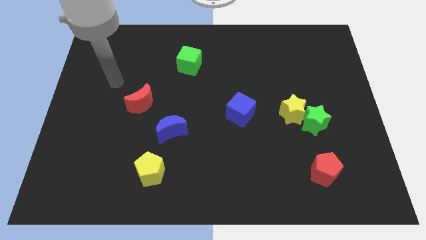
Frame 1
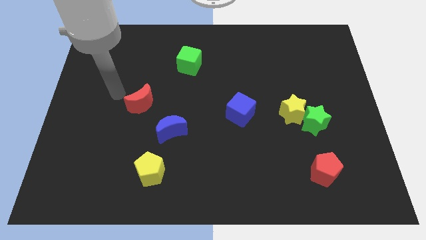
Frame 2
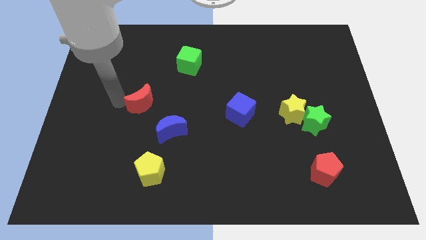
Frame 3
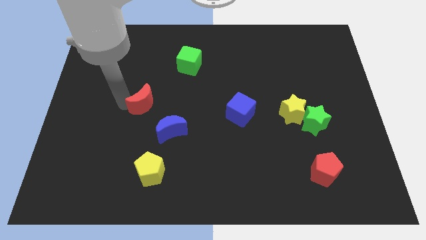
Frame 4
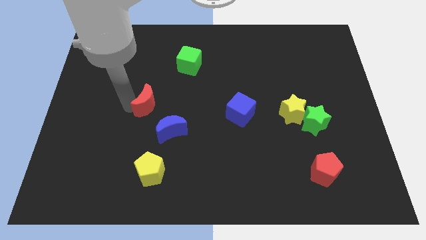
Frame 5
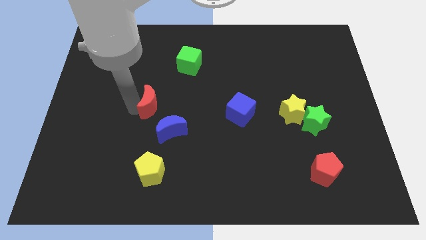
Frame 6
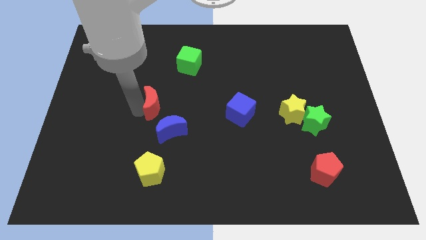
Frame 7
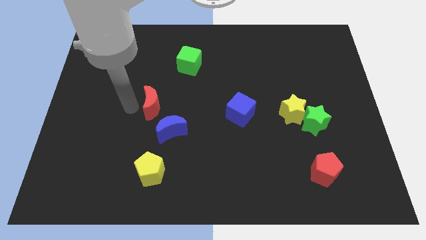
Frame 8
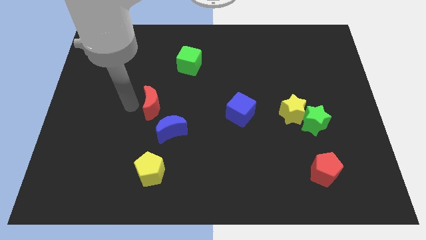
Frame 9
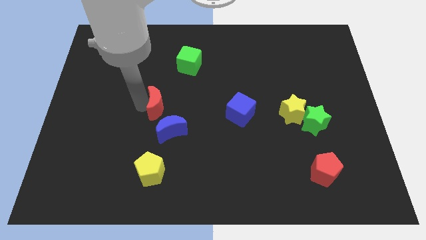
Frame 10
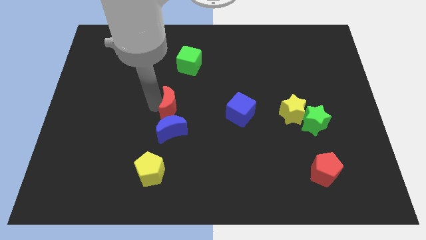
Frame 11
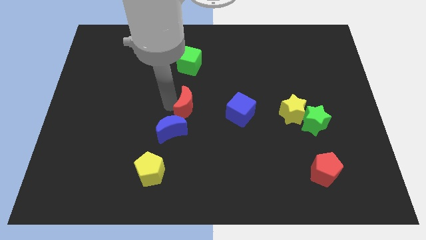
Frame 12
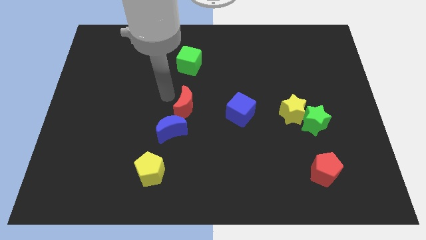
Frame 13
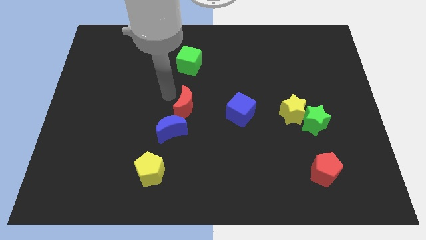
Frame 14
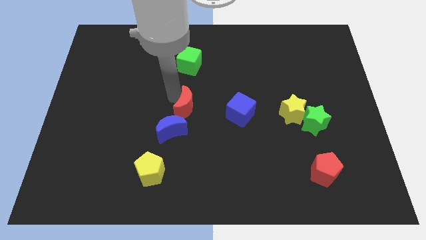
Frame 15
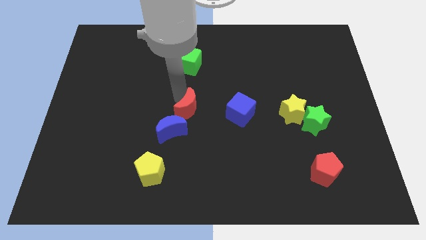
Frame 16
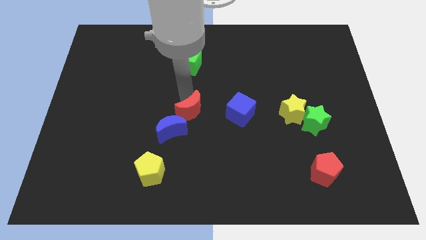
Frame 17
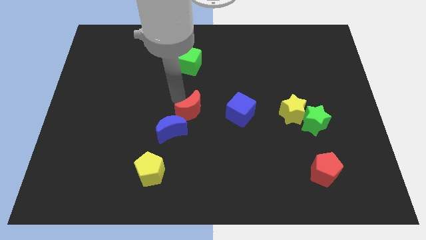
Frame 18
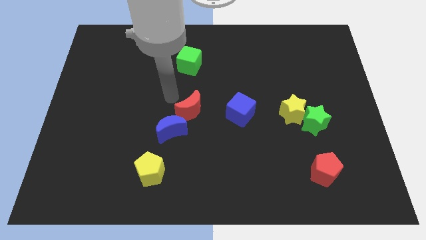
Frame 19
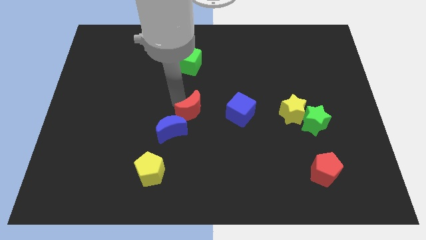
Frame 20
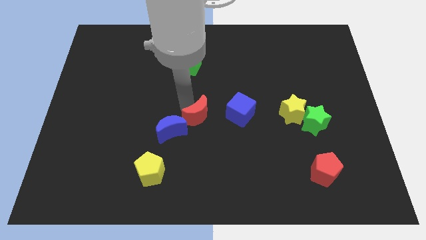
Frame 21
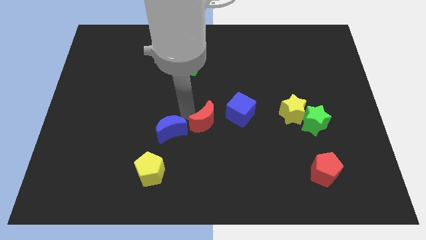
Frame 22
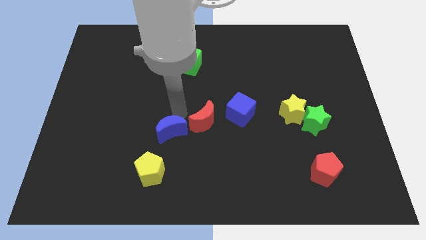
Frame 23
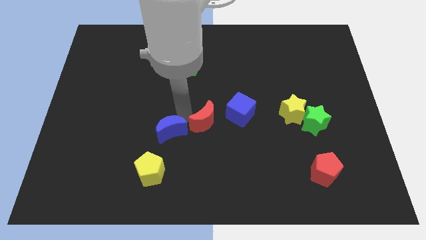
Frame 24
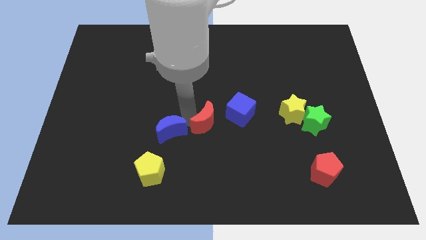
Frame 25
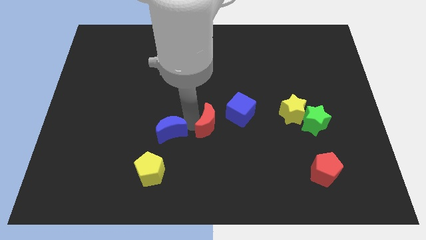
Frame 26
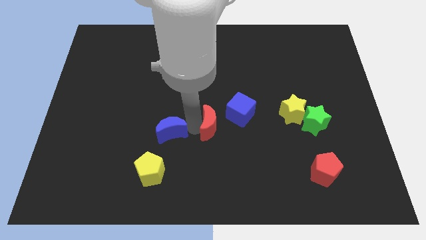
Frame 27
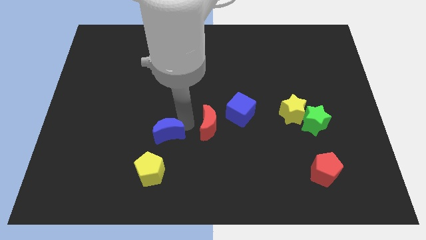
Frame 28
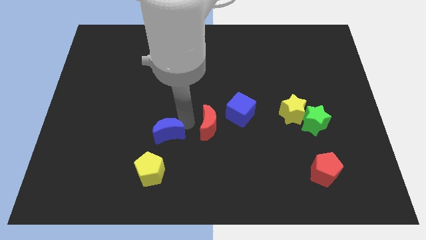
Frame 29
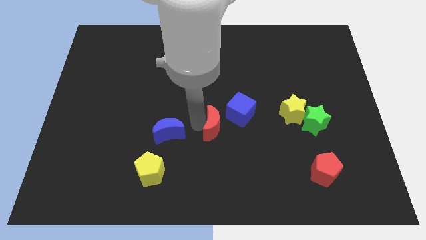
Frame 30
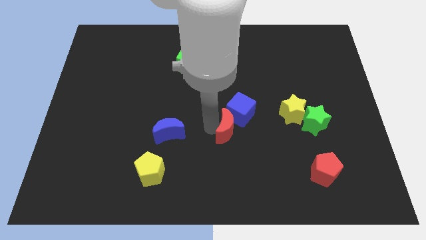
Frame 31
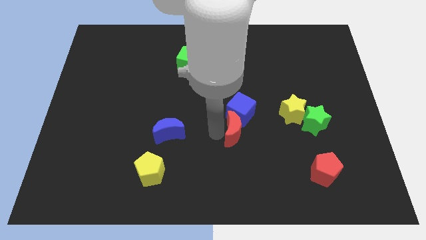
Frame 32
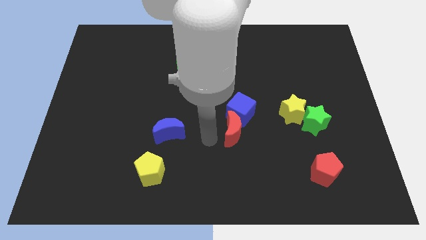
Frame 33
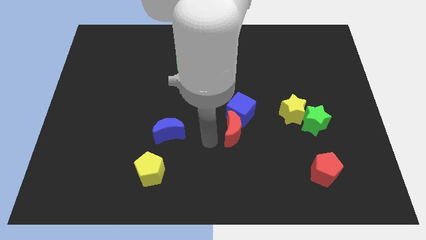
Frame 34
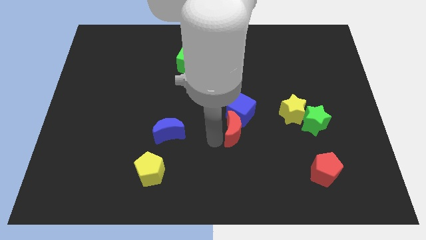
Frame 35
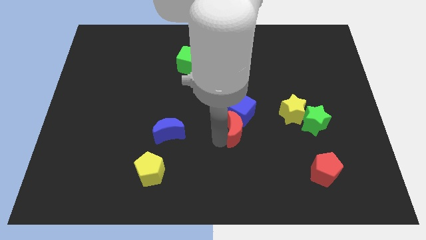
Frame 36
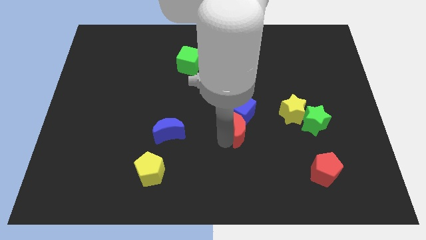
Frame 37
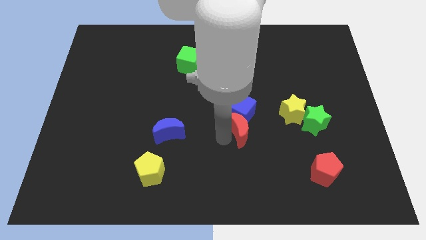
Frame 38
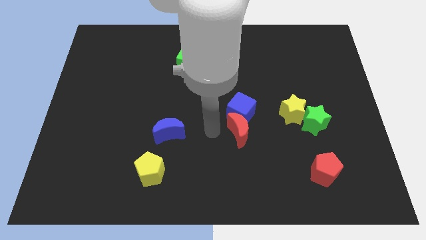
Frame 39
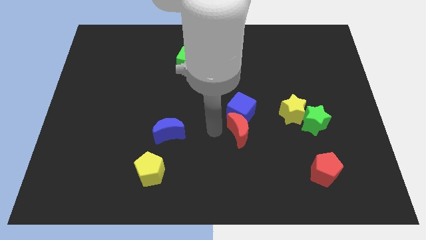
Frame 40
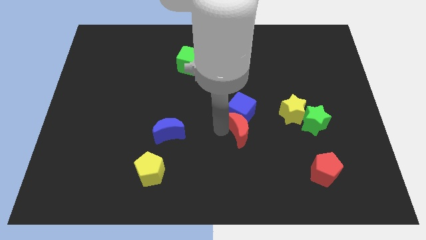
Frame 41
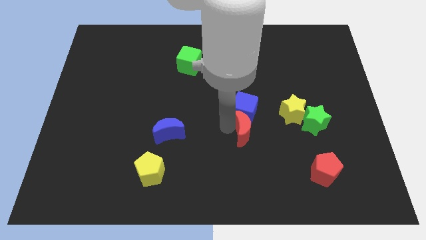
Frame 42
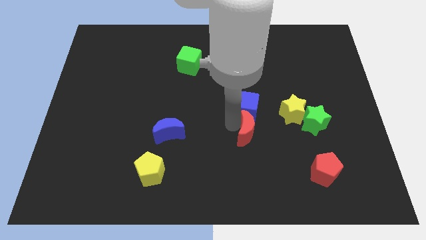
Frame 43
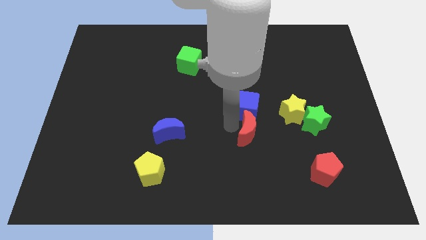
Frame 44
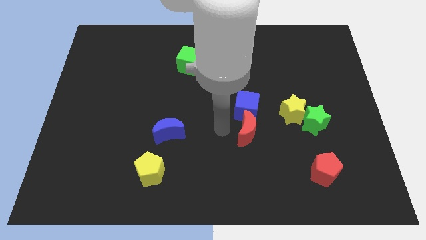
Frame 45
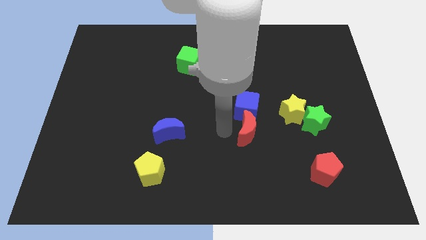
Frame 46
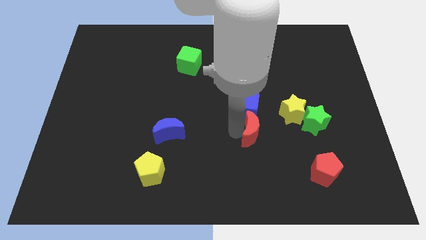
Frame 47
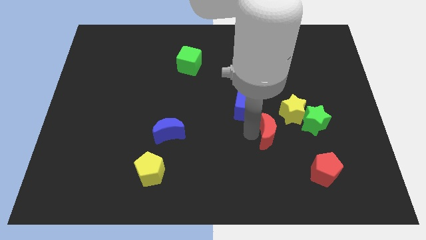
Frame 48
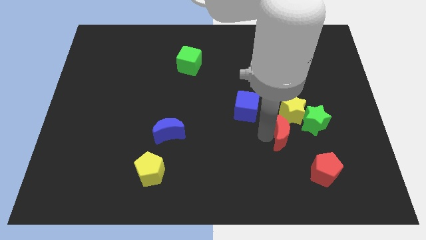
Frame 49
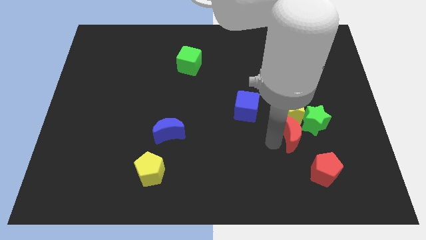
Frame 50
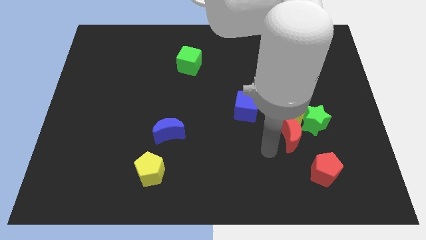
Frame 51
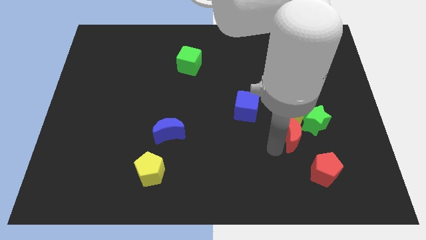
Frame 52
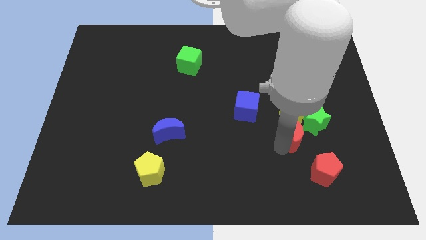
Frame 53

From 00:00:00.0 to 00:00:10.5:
push the red moon next to the green star

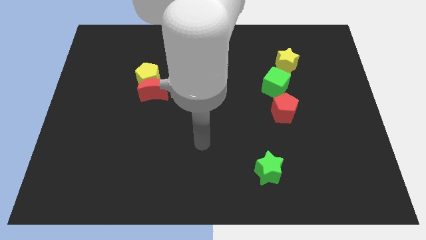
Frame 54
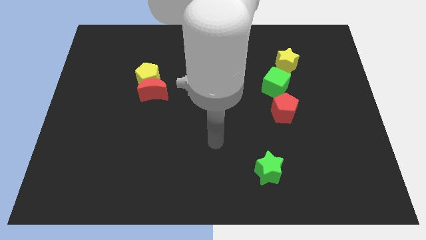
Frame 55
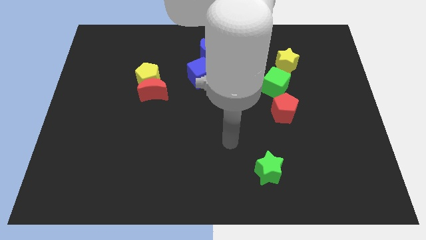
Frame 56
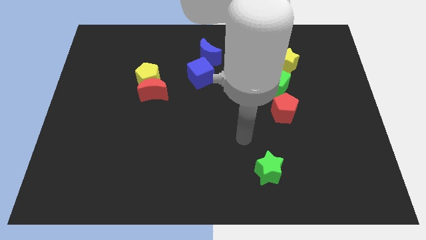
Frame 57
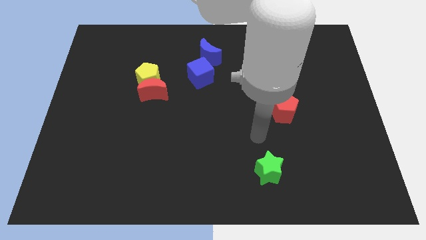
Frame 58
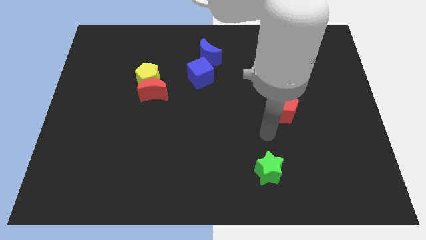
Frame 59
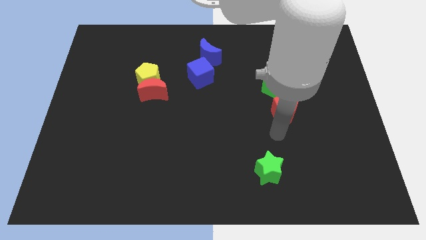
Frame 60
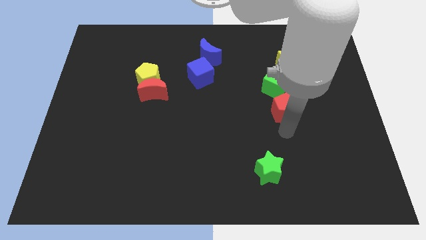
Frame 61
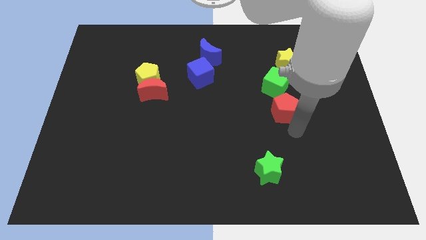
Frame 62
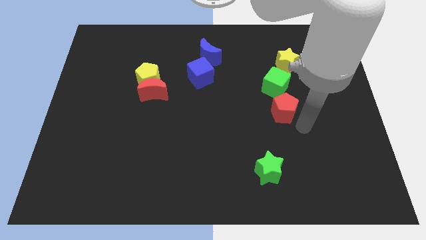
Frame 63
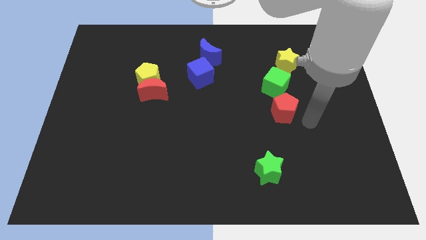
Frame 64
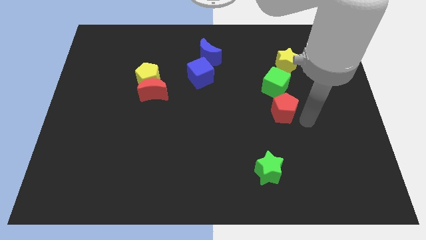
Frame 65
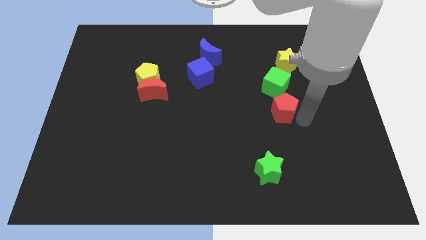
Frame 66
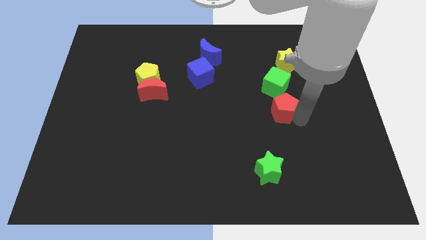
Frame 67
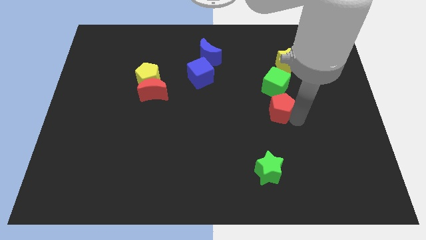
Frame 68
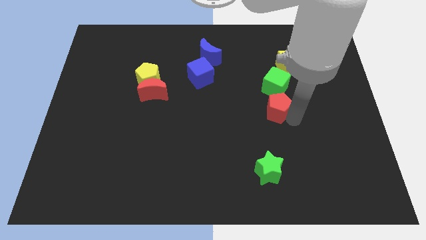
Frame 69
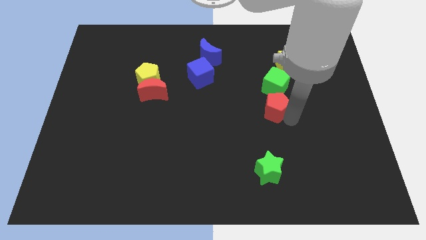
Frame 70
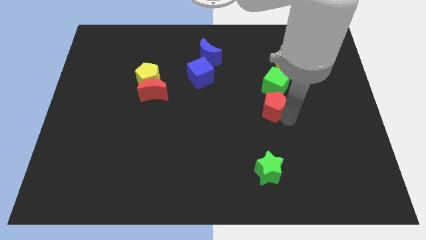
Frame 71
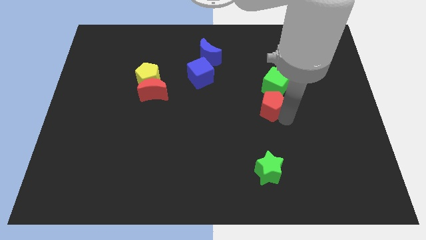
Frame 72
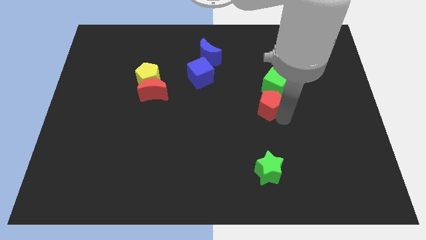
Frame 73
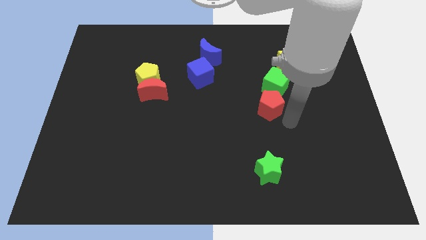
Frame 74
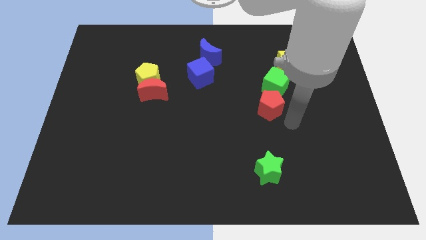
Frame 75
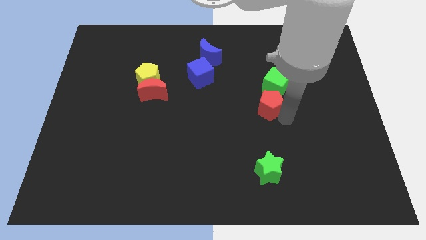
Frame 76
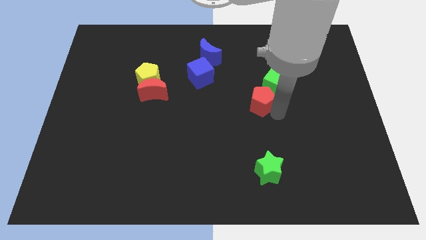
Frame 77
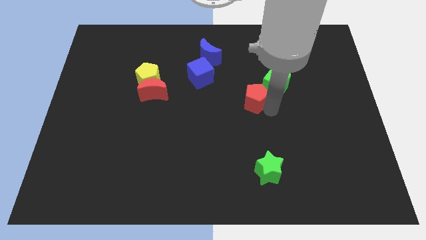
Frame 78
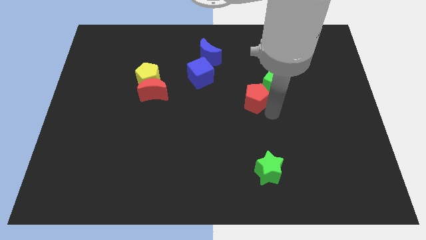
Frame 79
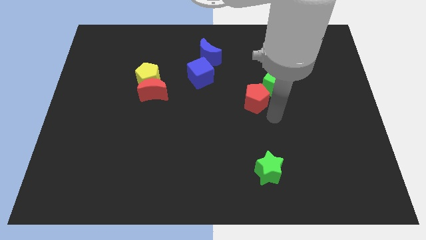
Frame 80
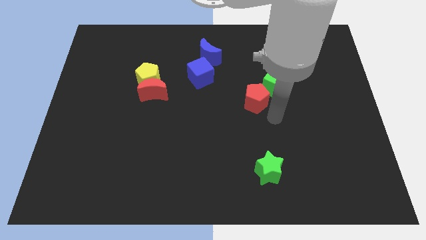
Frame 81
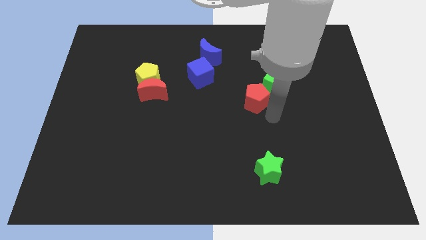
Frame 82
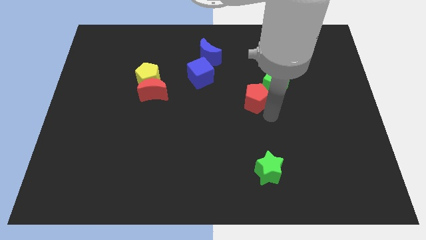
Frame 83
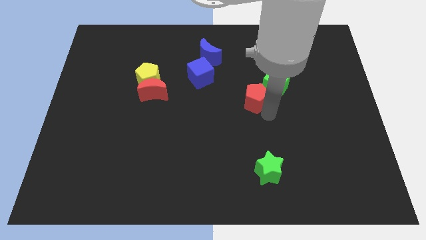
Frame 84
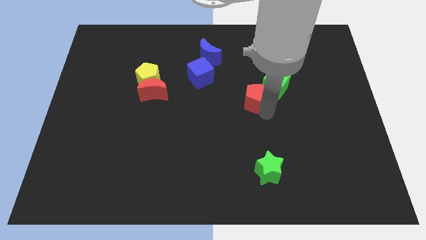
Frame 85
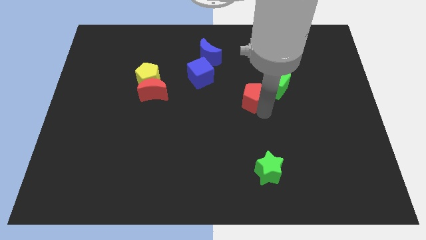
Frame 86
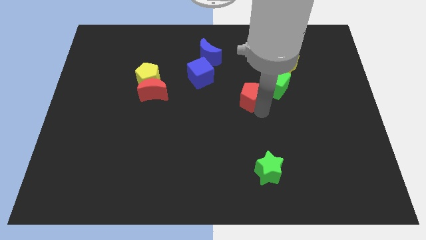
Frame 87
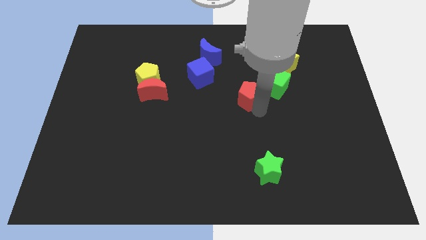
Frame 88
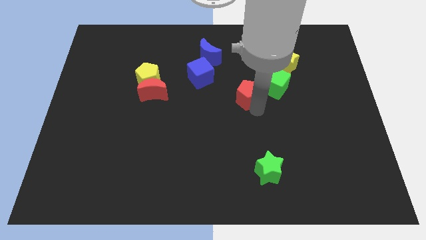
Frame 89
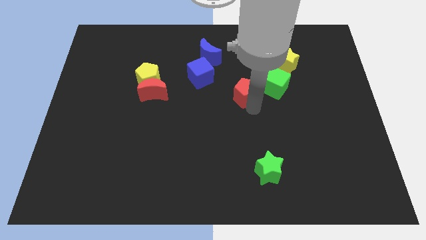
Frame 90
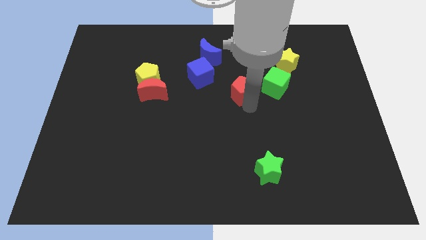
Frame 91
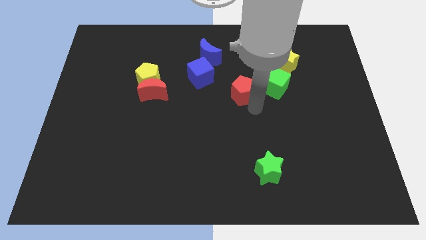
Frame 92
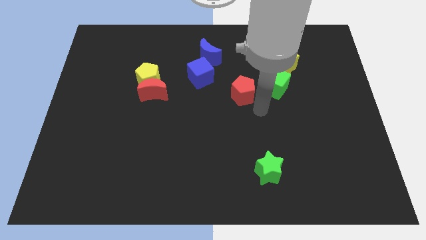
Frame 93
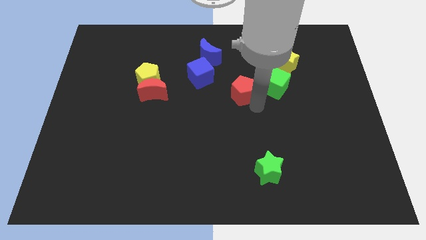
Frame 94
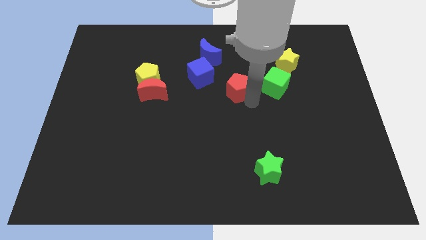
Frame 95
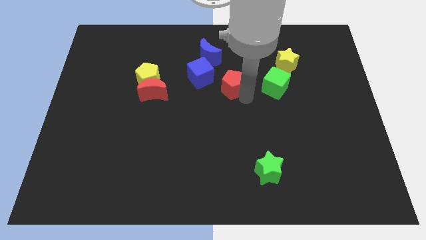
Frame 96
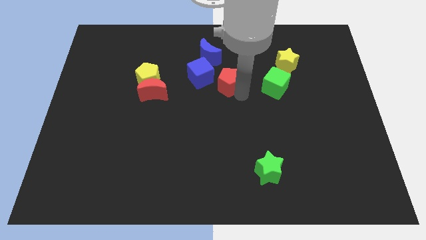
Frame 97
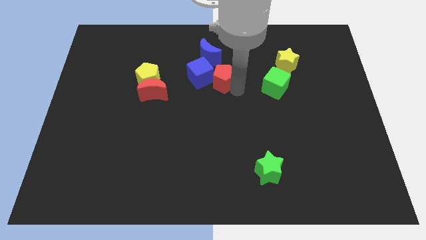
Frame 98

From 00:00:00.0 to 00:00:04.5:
push the red pentagon next to the blue cube
